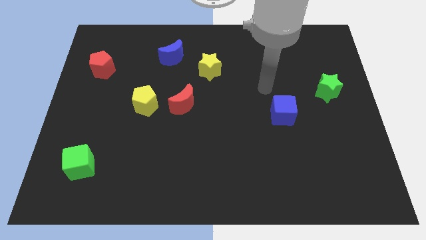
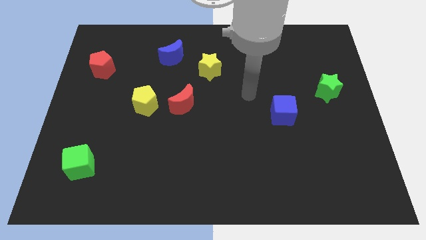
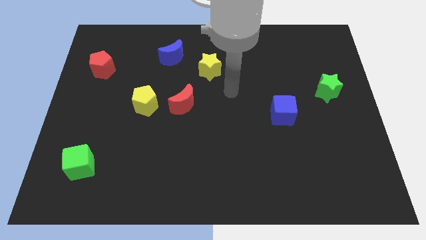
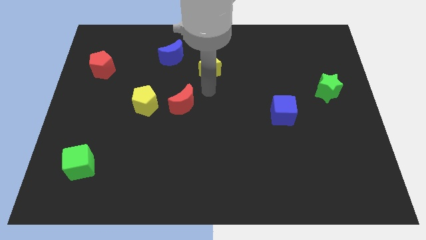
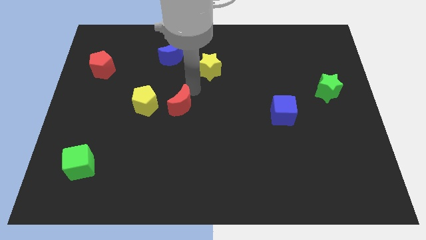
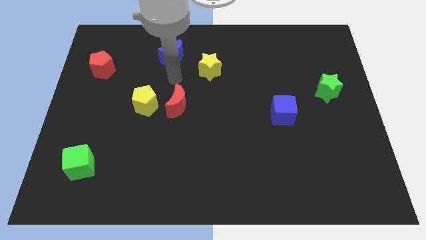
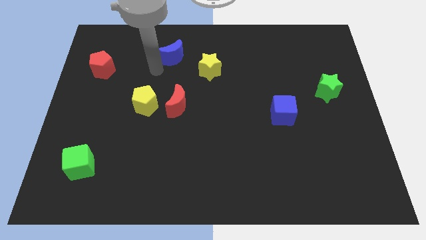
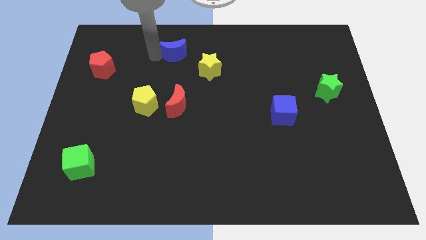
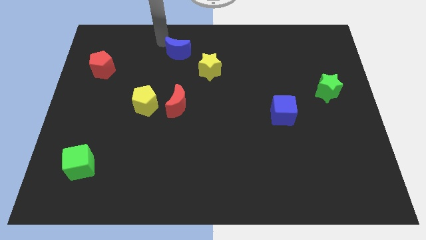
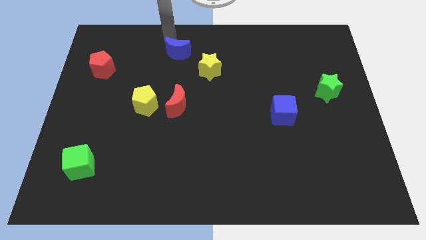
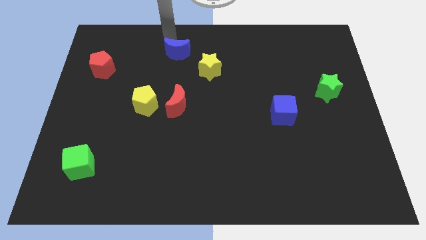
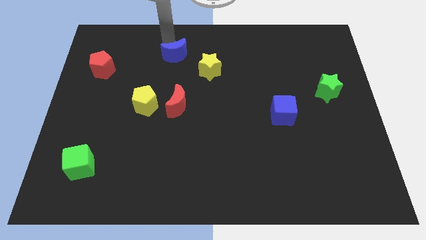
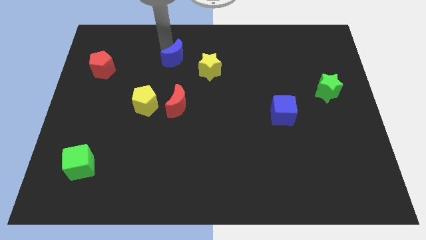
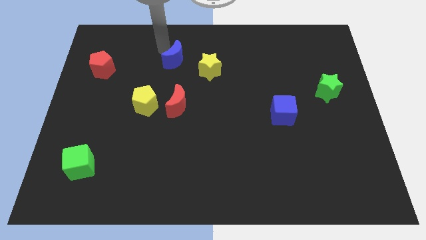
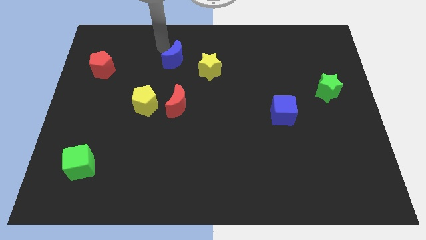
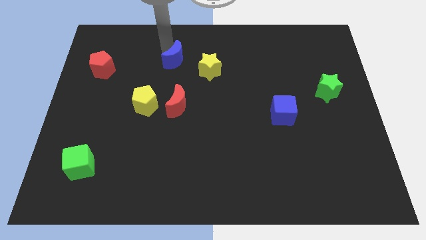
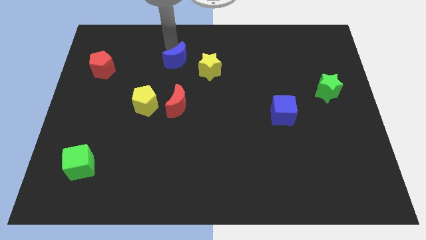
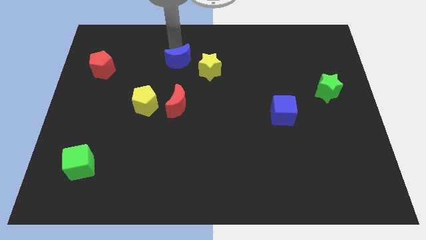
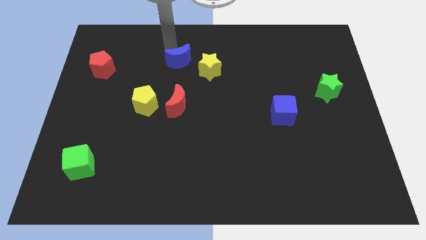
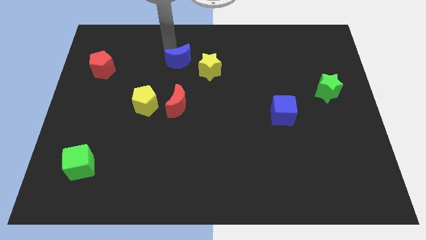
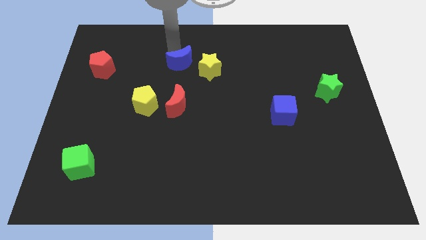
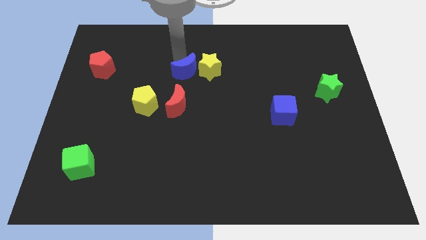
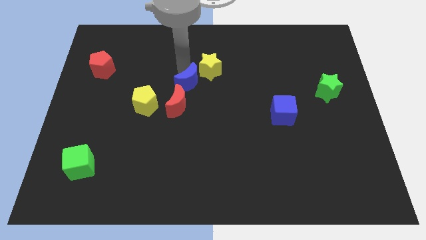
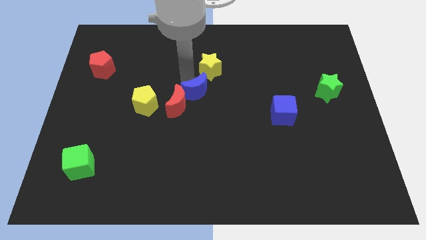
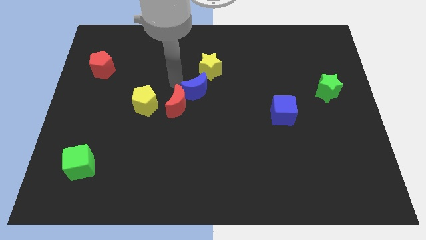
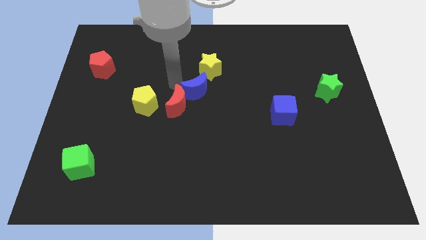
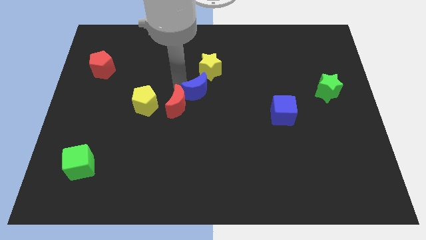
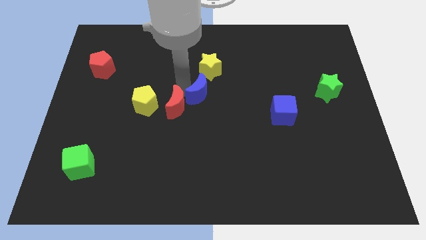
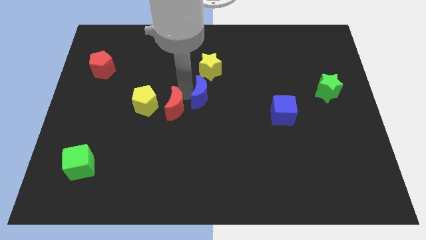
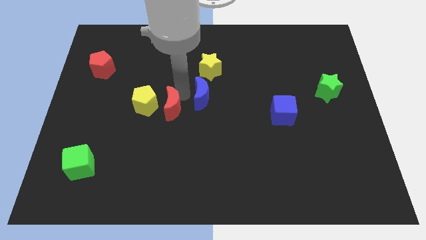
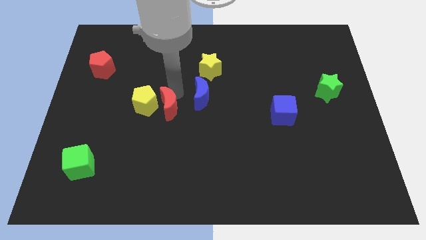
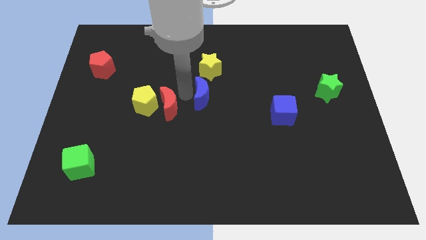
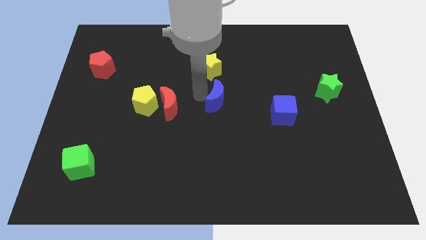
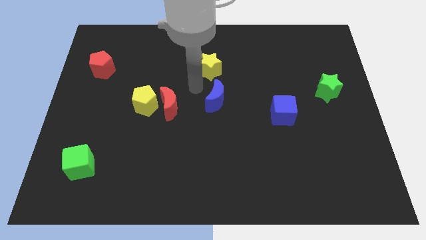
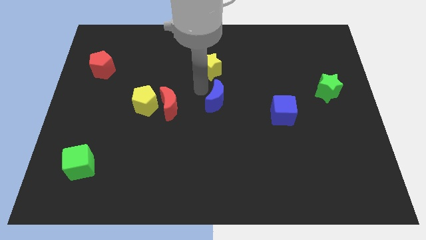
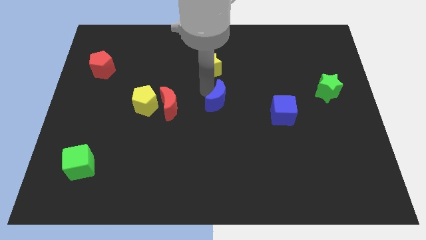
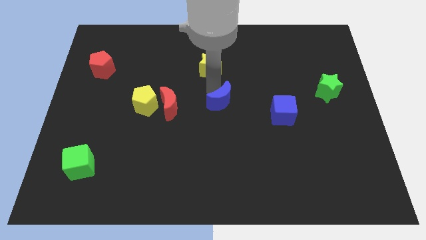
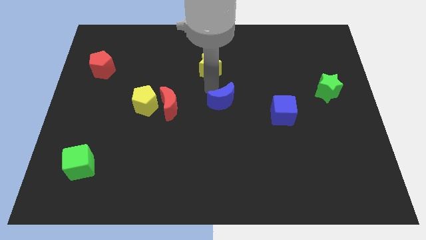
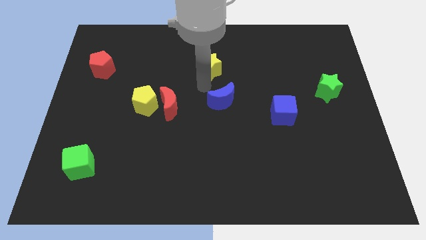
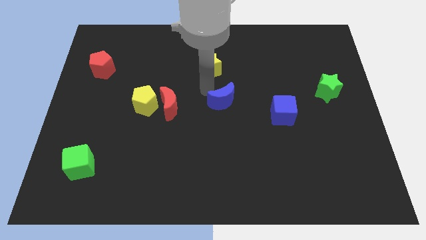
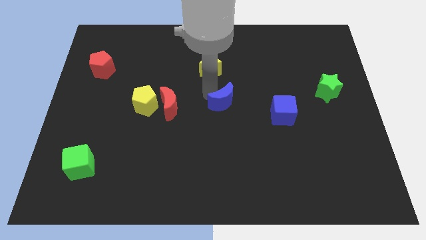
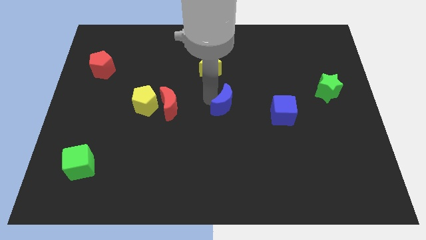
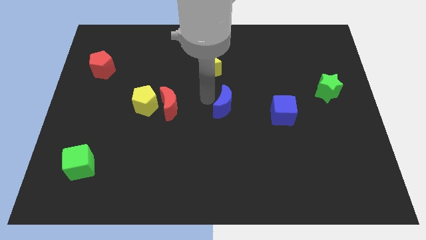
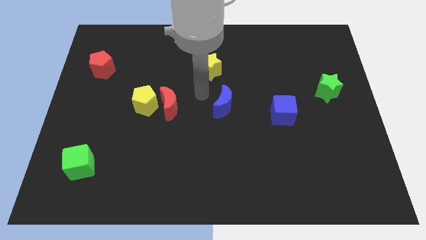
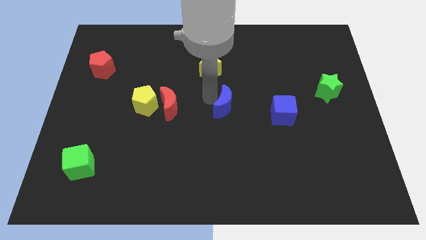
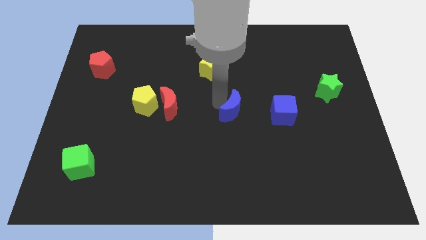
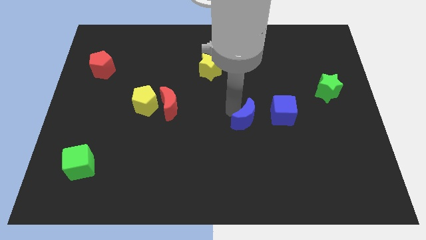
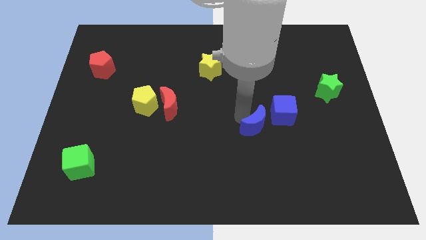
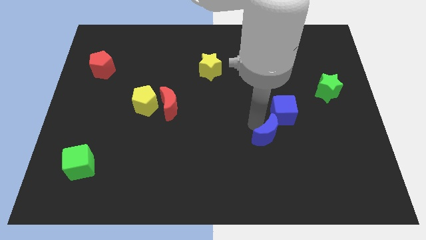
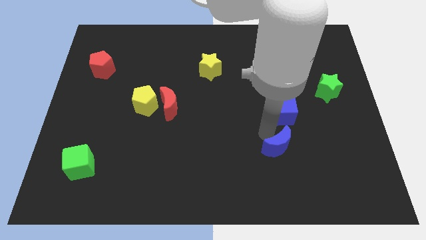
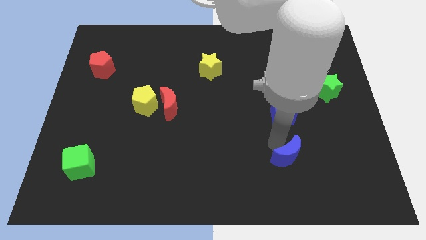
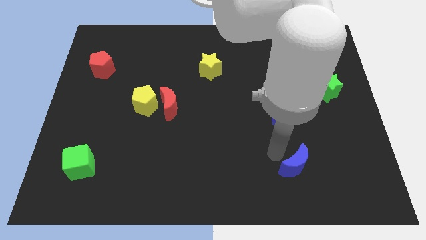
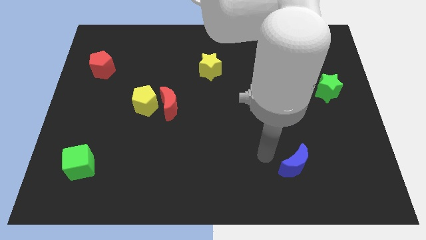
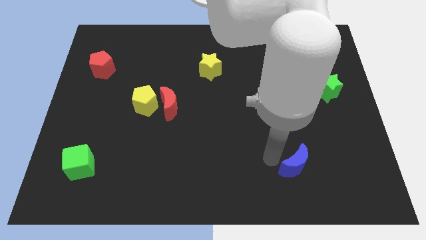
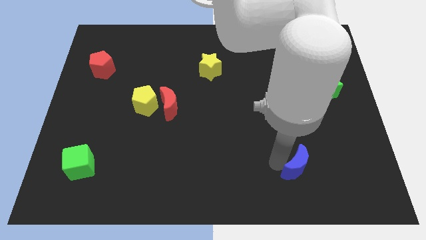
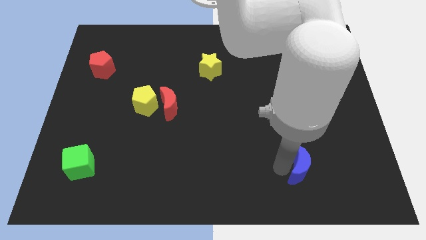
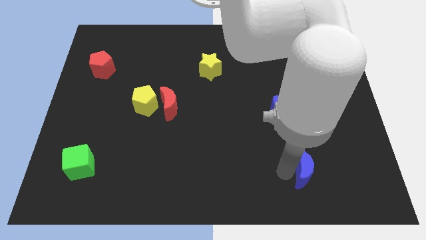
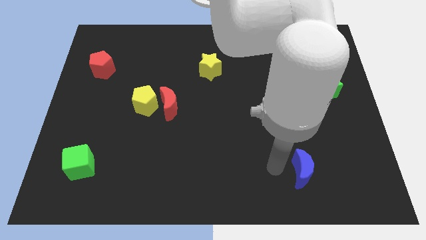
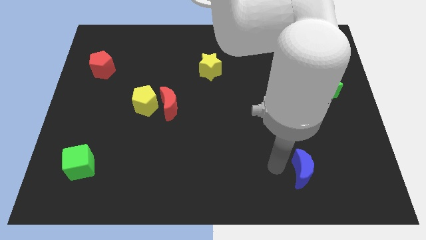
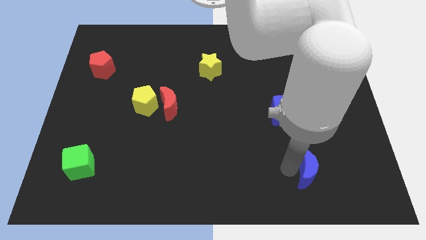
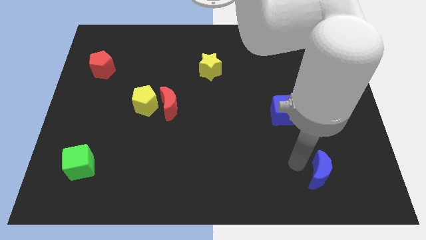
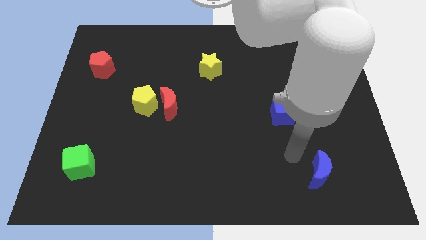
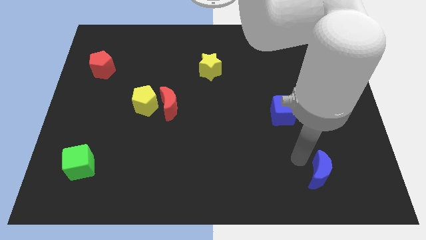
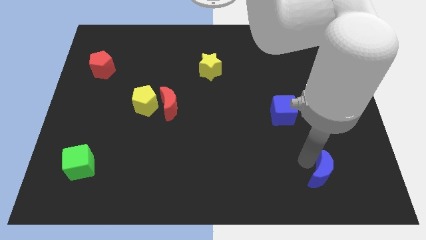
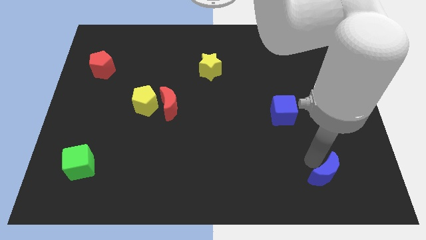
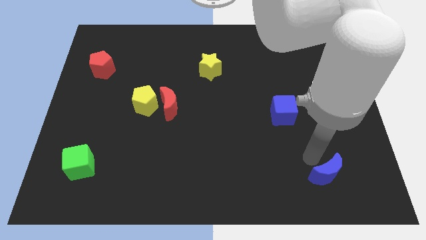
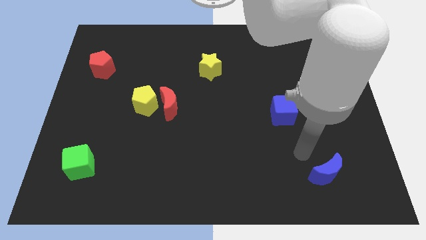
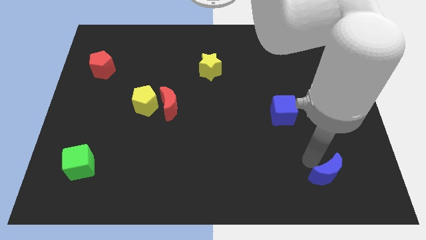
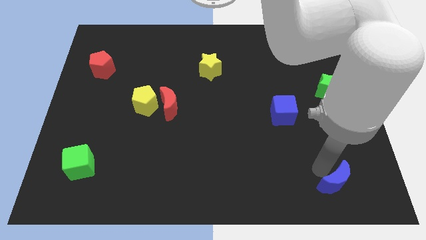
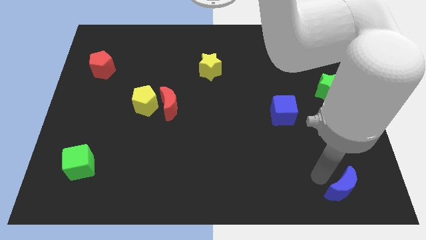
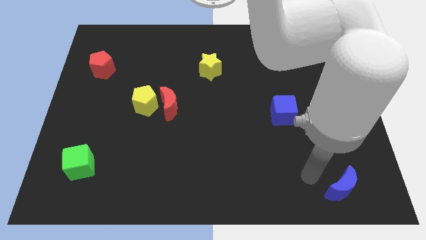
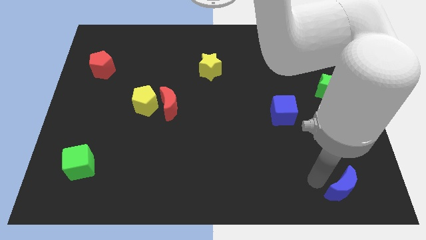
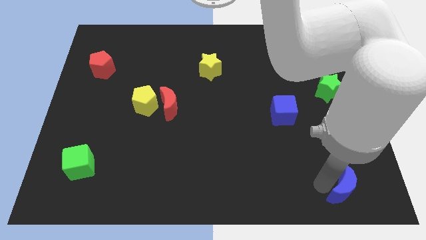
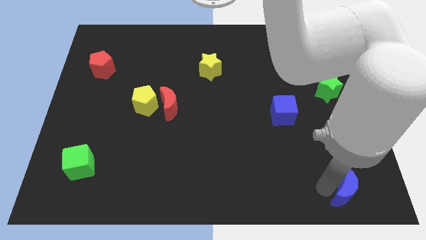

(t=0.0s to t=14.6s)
move the blue moon to the bottom right
